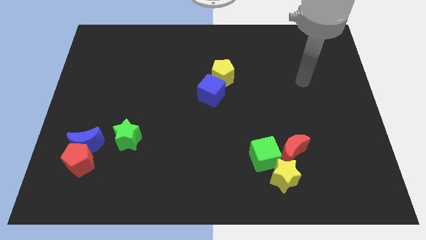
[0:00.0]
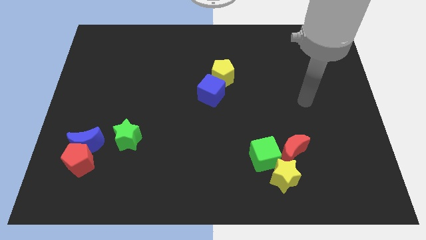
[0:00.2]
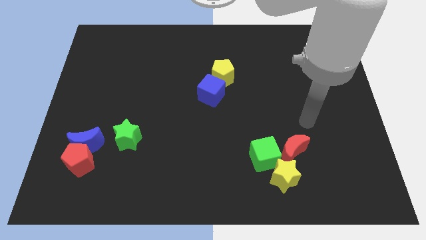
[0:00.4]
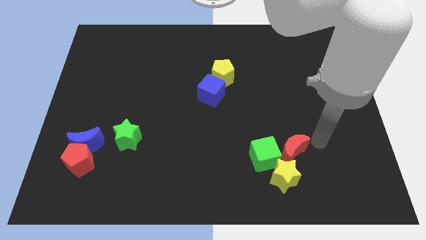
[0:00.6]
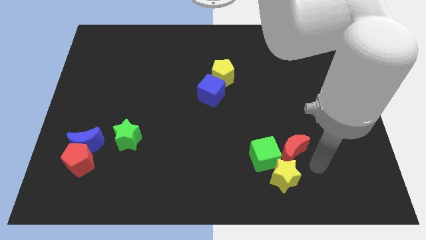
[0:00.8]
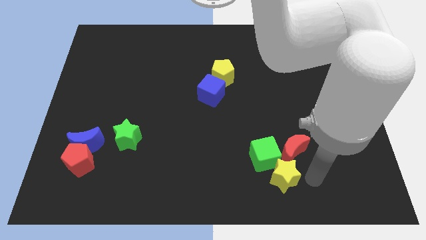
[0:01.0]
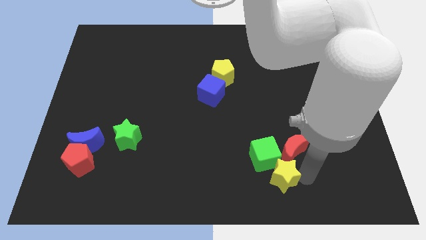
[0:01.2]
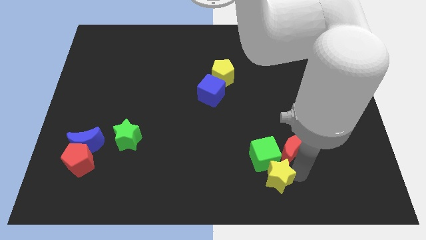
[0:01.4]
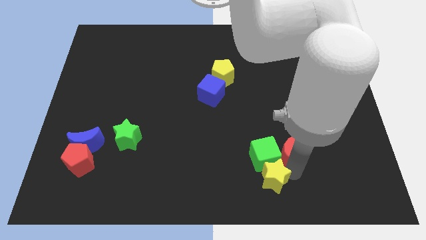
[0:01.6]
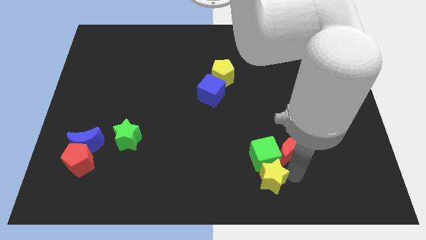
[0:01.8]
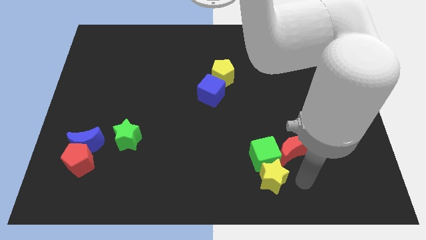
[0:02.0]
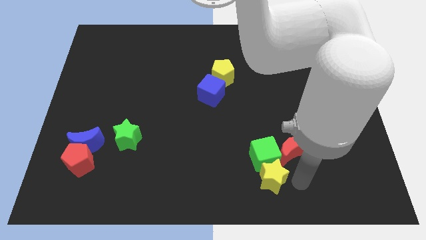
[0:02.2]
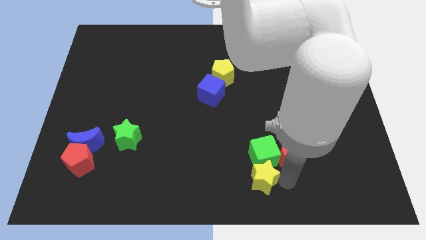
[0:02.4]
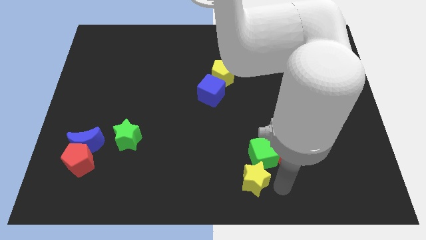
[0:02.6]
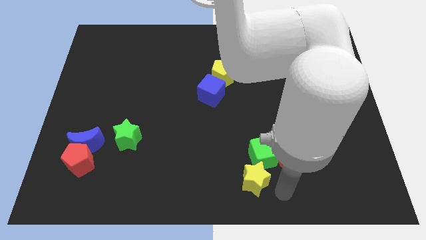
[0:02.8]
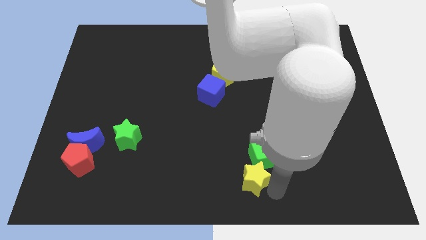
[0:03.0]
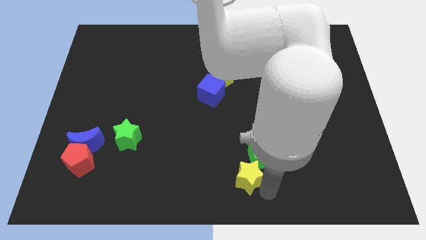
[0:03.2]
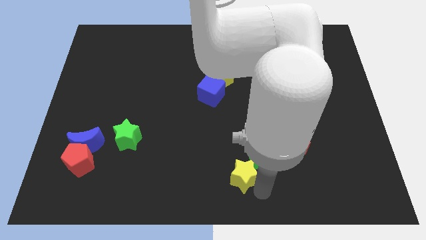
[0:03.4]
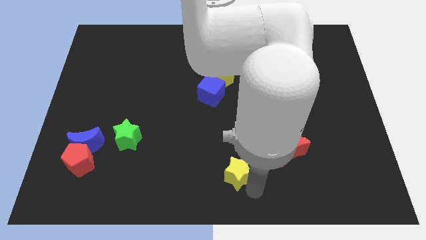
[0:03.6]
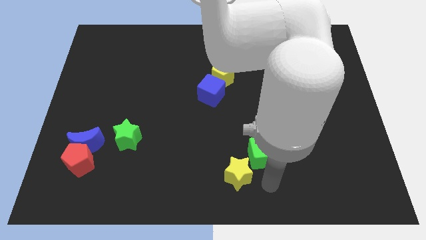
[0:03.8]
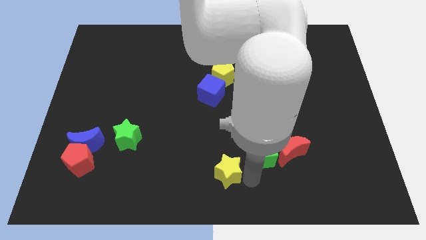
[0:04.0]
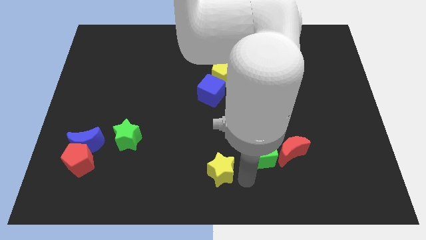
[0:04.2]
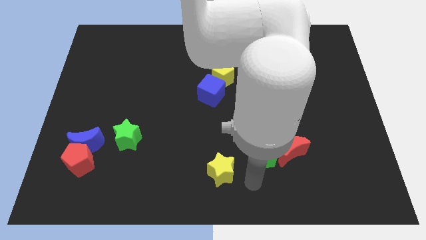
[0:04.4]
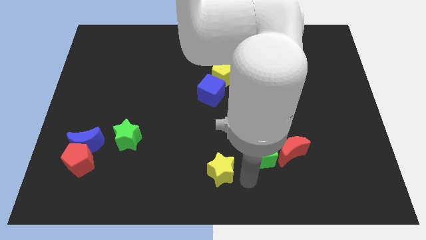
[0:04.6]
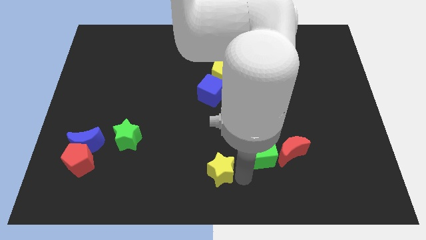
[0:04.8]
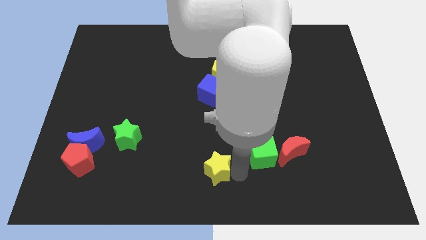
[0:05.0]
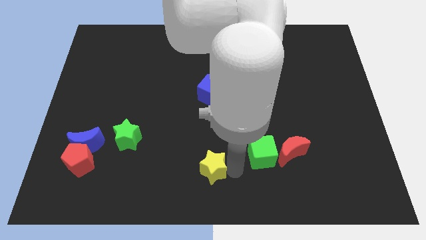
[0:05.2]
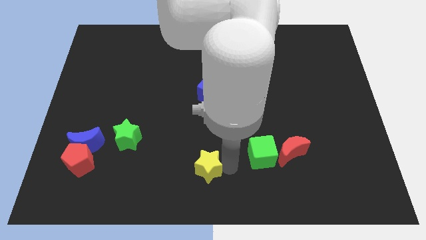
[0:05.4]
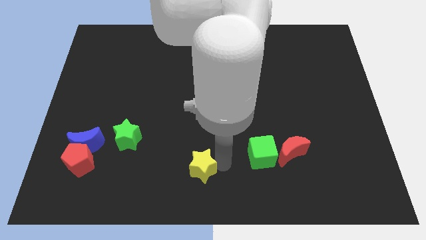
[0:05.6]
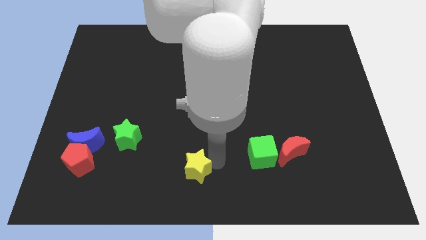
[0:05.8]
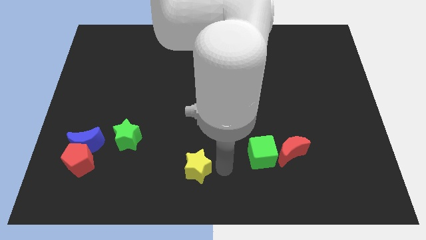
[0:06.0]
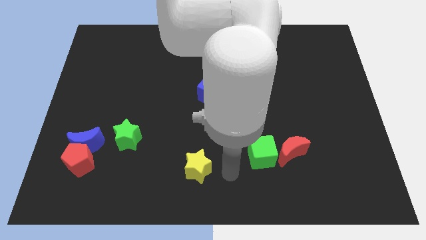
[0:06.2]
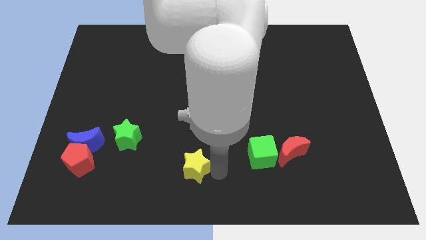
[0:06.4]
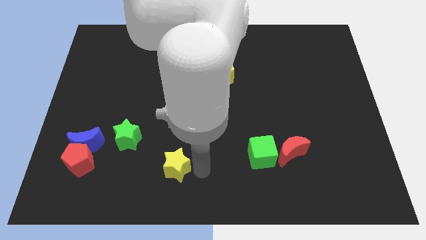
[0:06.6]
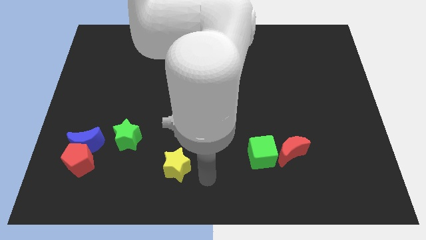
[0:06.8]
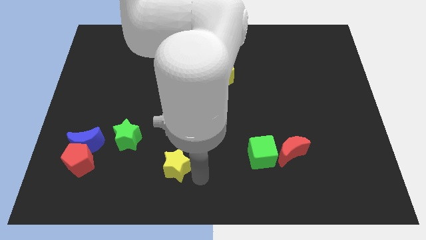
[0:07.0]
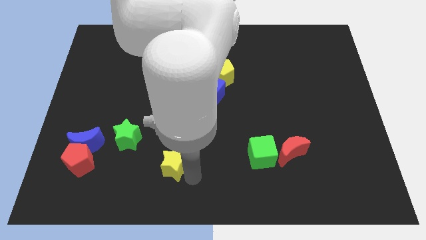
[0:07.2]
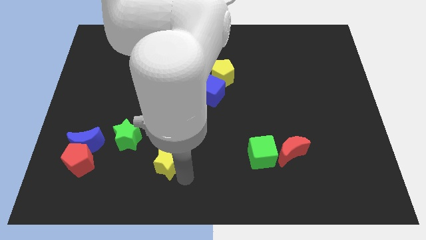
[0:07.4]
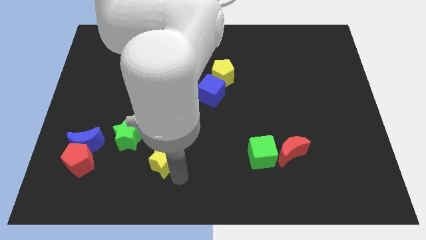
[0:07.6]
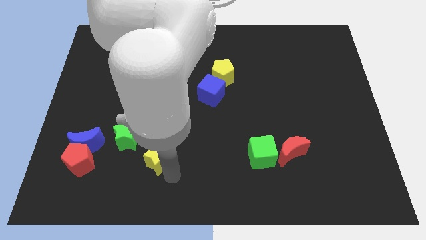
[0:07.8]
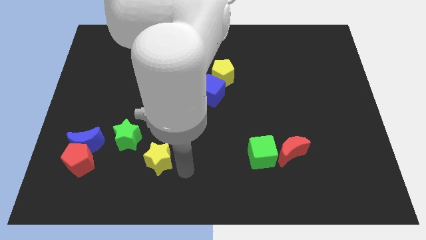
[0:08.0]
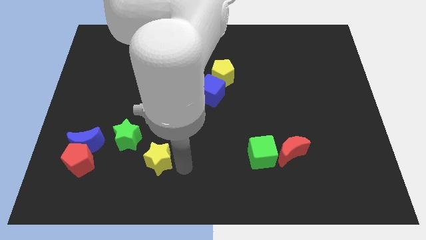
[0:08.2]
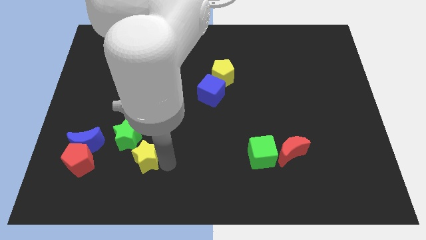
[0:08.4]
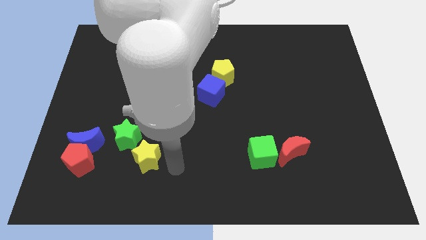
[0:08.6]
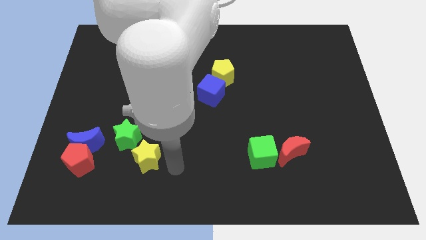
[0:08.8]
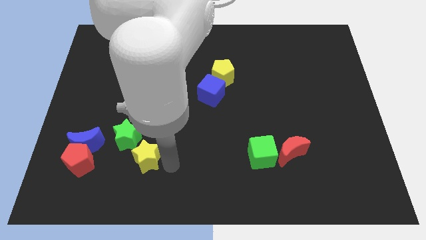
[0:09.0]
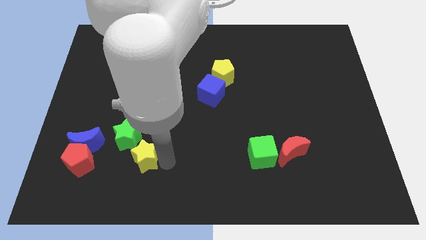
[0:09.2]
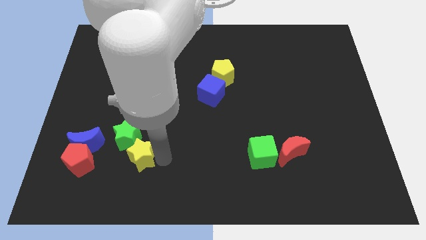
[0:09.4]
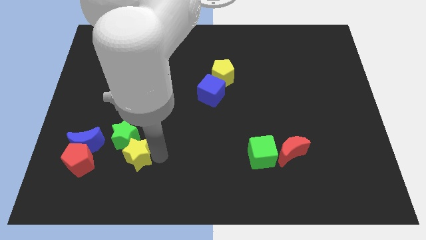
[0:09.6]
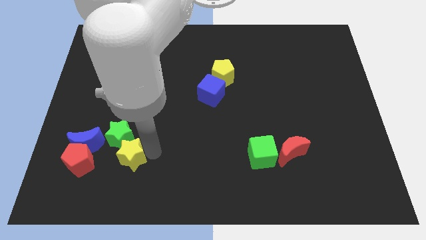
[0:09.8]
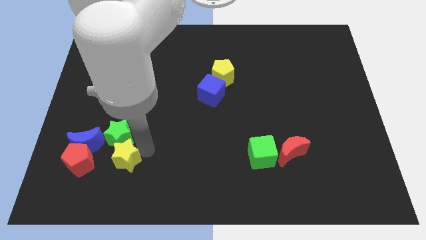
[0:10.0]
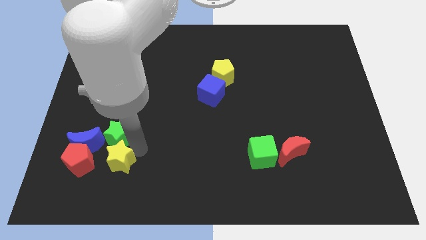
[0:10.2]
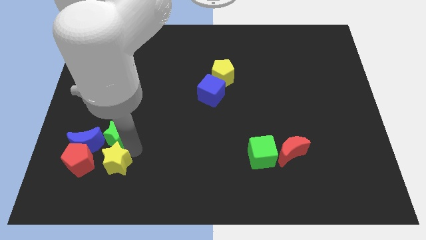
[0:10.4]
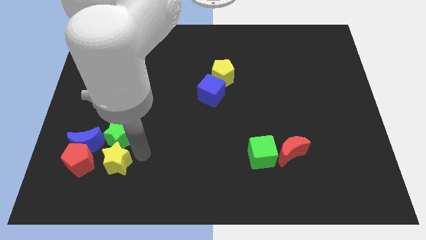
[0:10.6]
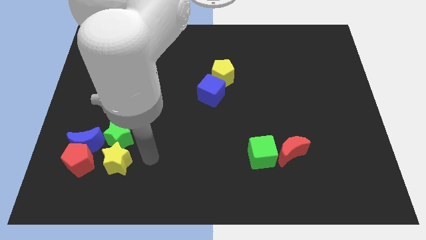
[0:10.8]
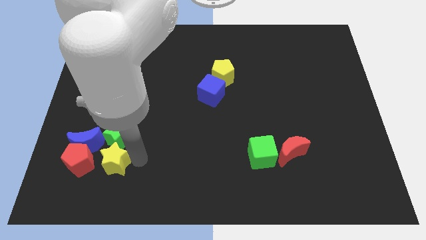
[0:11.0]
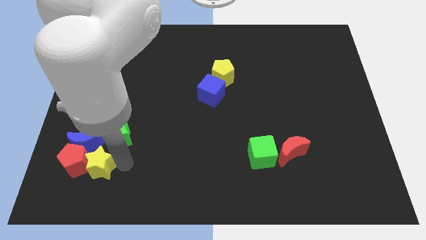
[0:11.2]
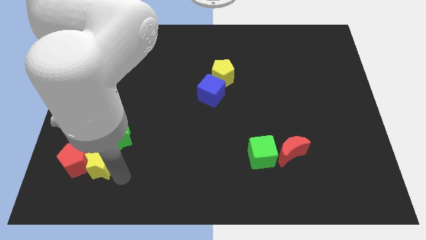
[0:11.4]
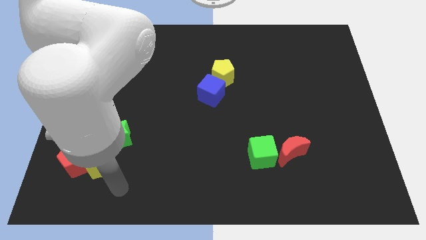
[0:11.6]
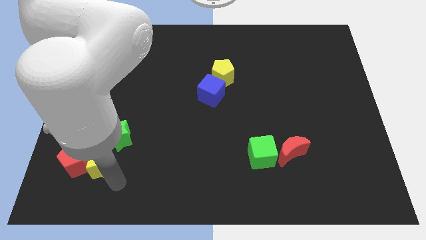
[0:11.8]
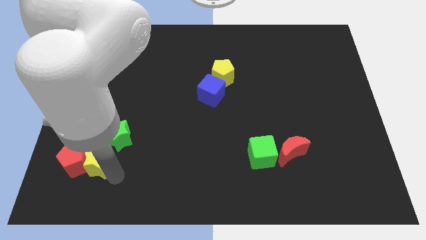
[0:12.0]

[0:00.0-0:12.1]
push the yellow star close to the blue moon

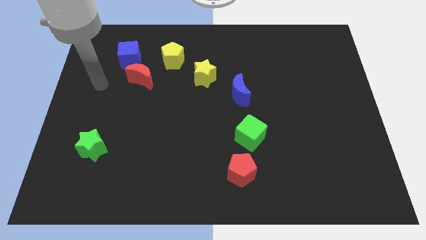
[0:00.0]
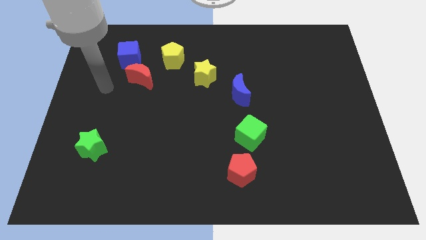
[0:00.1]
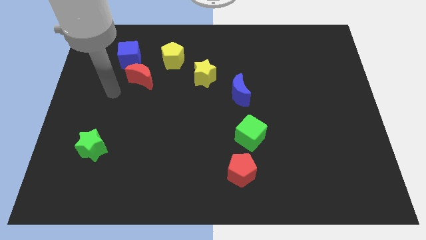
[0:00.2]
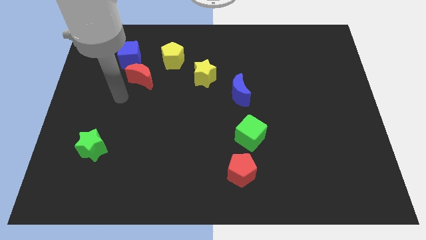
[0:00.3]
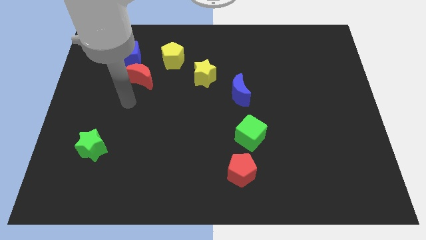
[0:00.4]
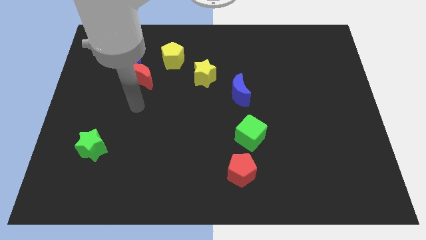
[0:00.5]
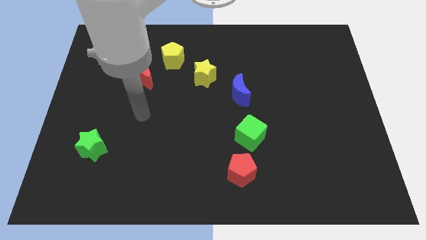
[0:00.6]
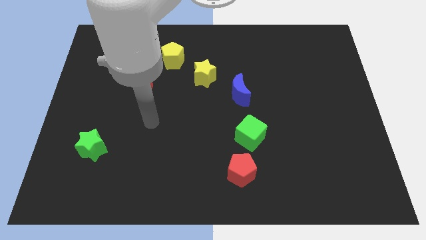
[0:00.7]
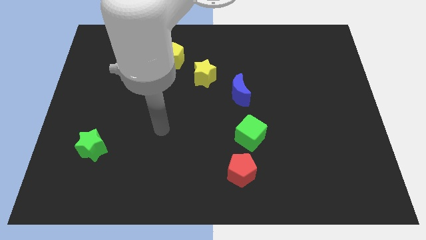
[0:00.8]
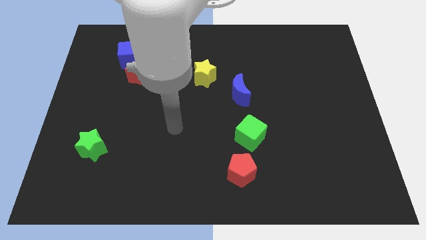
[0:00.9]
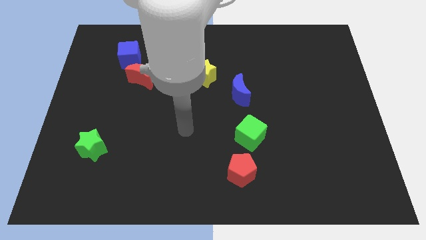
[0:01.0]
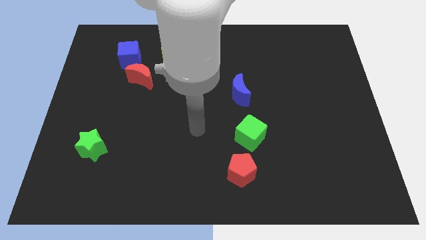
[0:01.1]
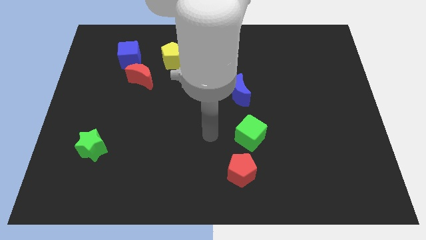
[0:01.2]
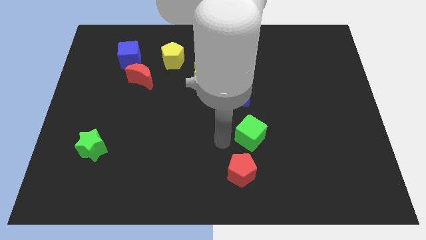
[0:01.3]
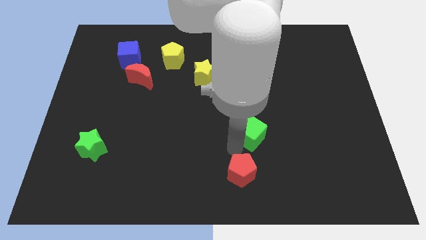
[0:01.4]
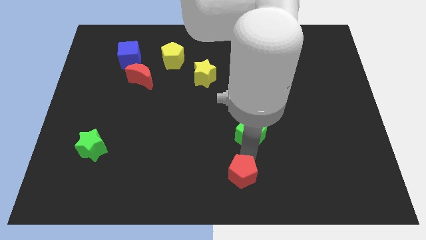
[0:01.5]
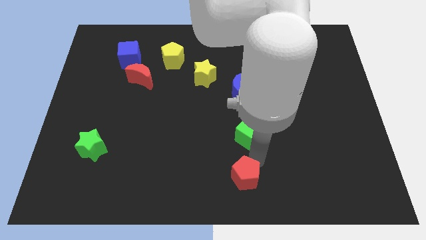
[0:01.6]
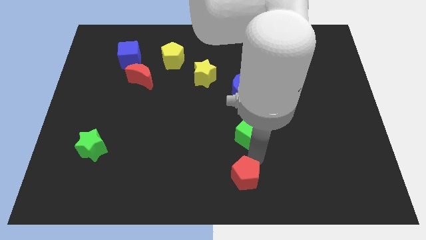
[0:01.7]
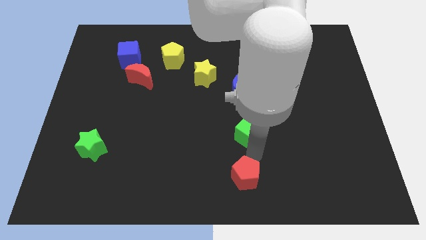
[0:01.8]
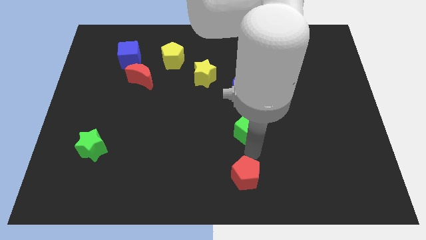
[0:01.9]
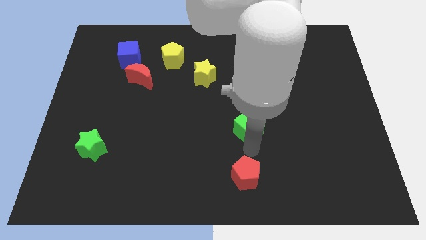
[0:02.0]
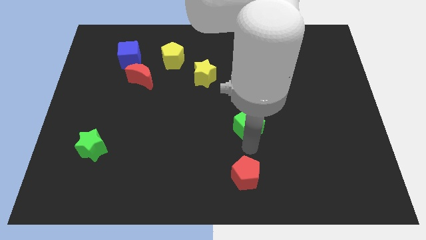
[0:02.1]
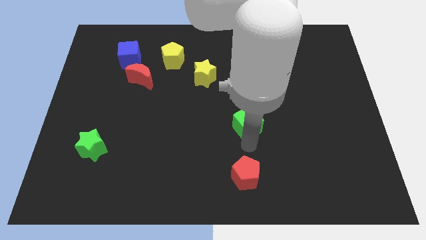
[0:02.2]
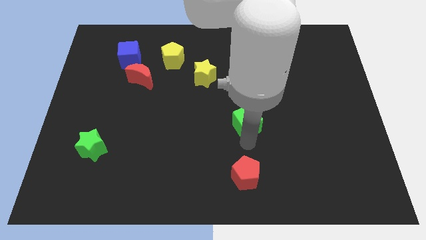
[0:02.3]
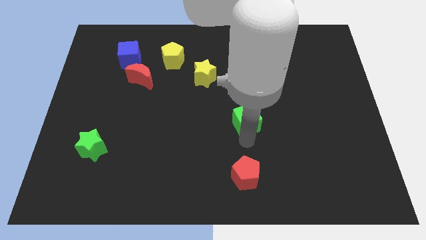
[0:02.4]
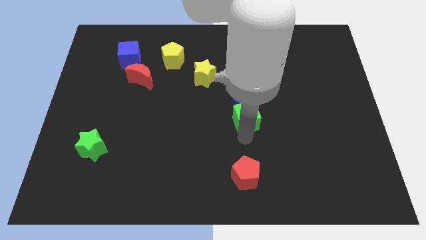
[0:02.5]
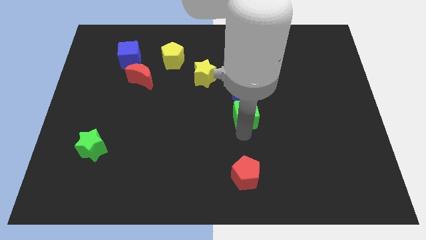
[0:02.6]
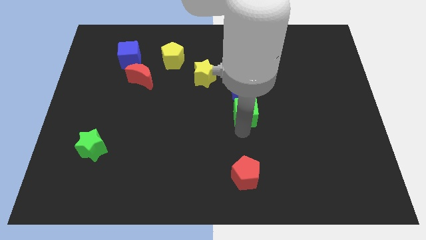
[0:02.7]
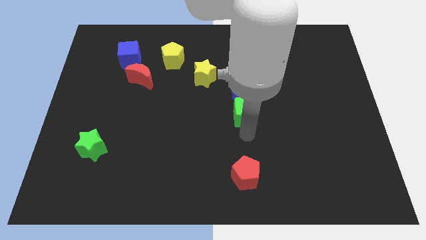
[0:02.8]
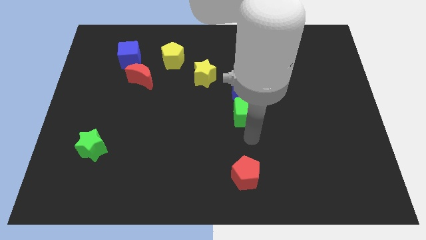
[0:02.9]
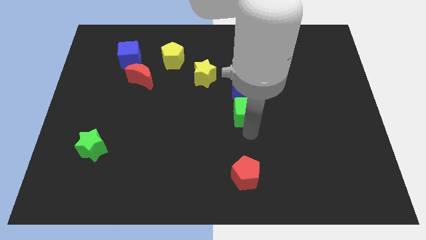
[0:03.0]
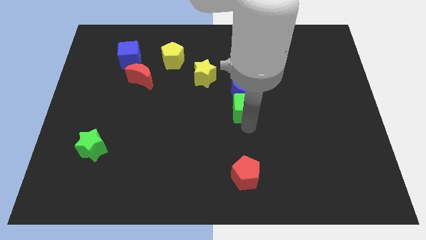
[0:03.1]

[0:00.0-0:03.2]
push the green cube next to the blue moon
